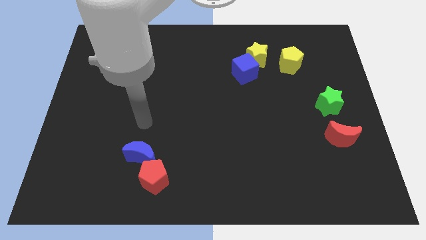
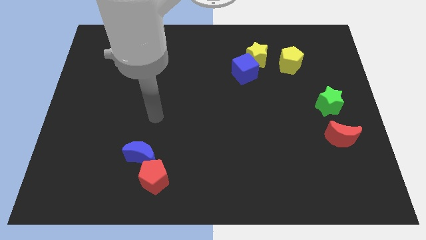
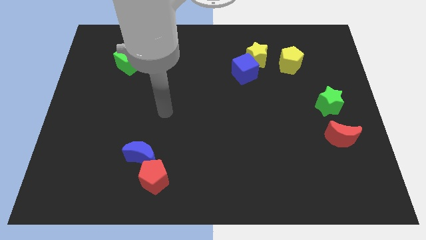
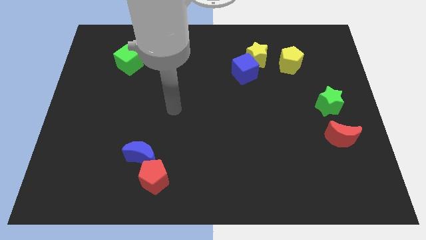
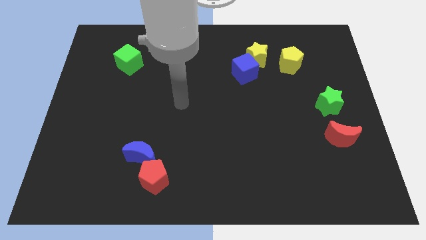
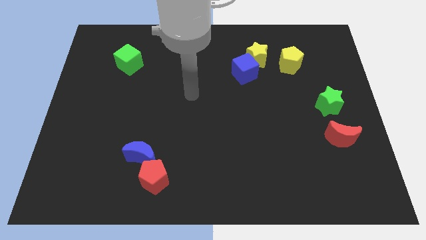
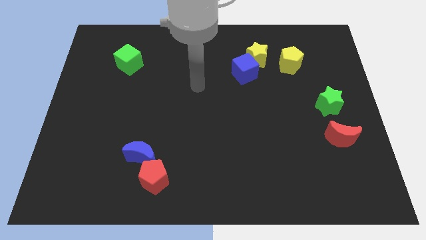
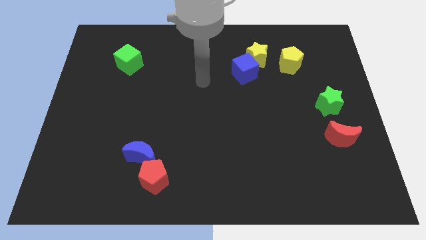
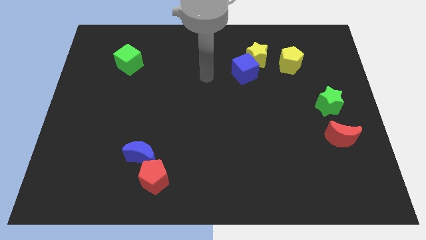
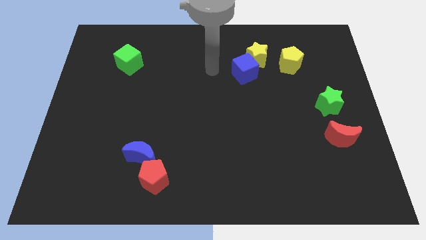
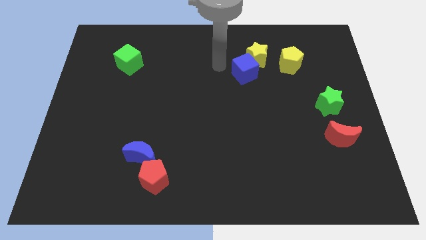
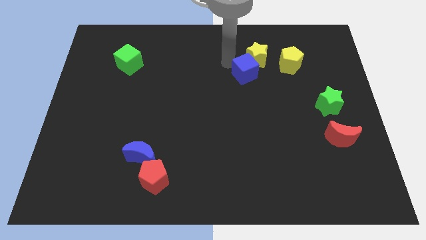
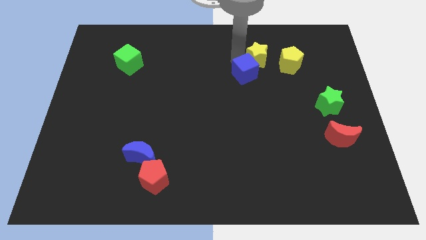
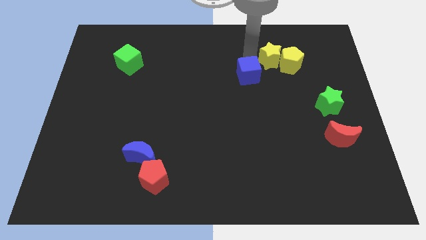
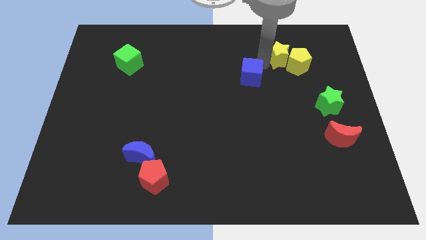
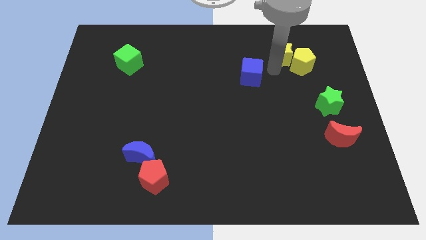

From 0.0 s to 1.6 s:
move the blue cube away from the yellow star

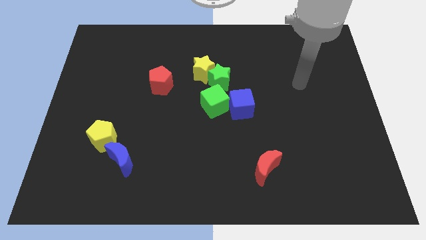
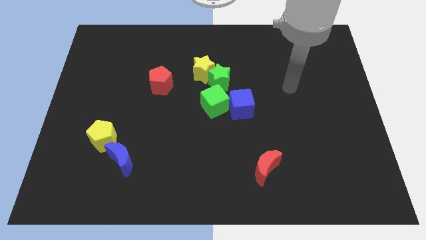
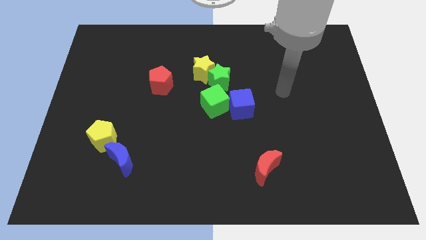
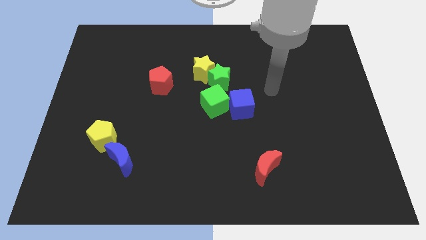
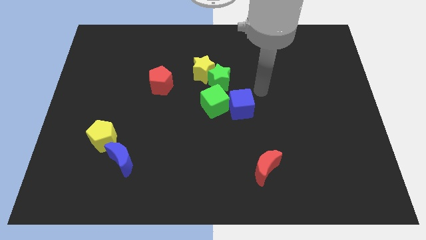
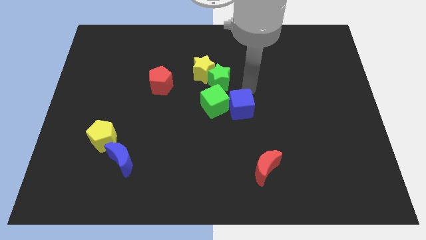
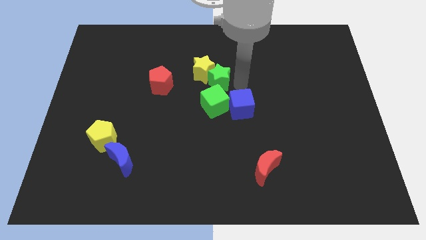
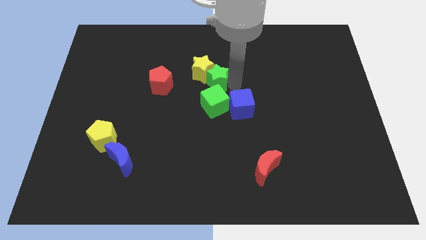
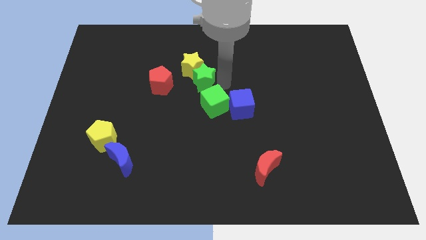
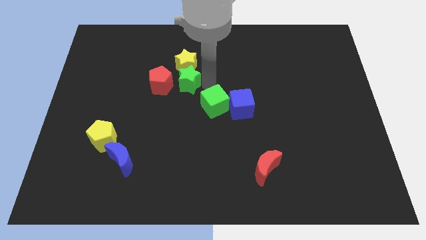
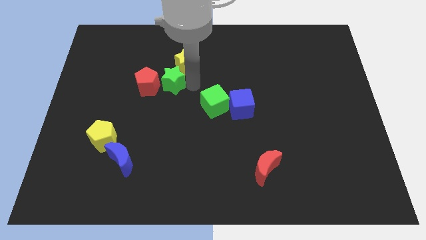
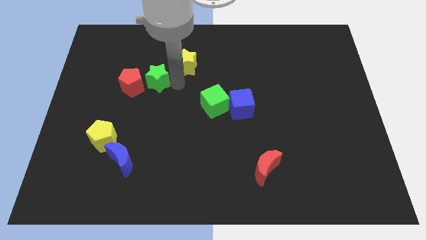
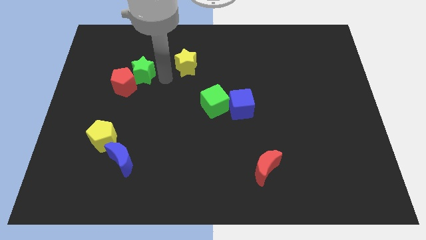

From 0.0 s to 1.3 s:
pull the yellow star apart from the green star

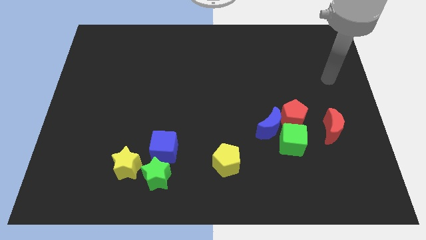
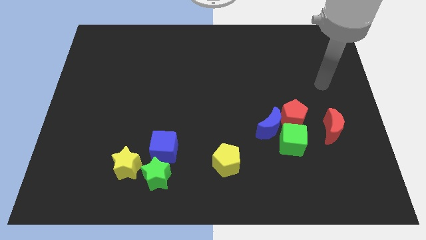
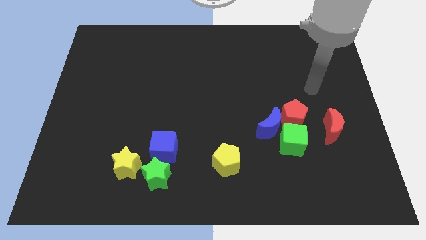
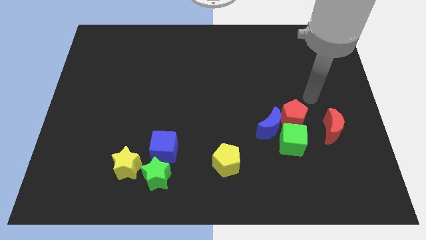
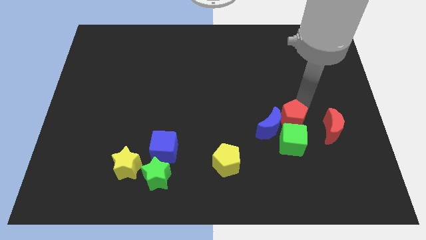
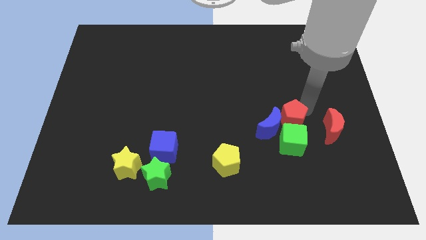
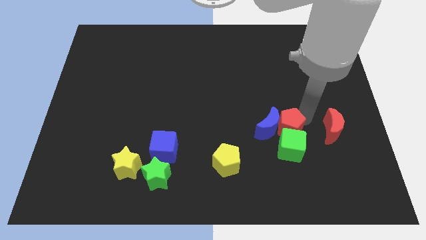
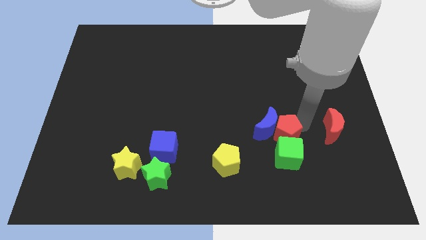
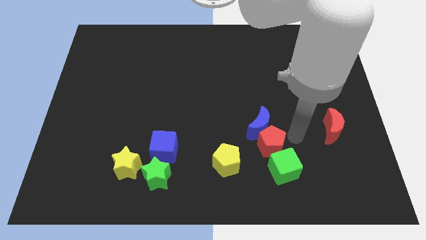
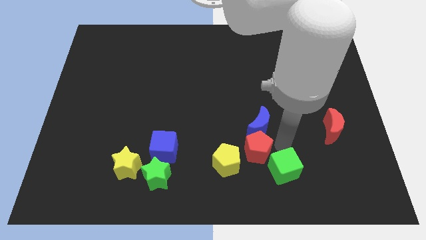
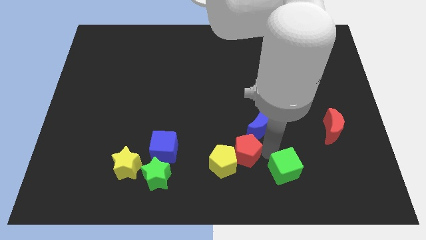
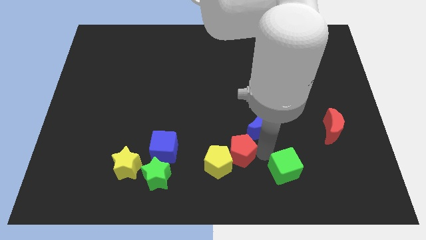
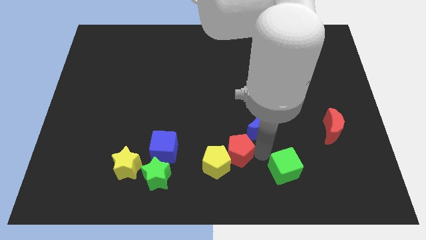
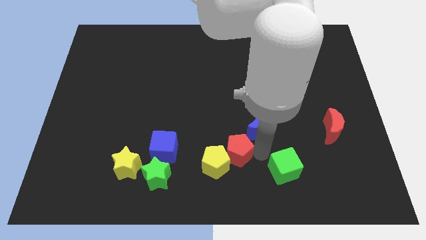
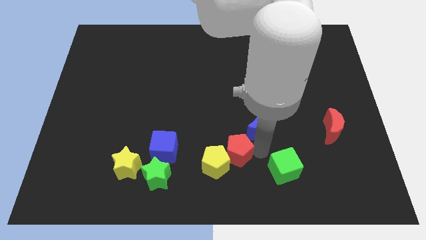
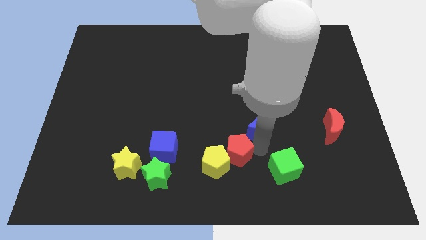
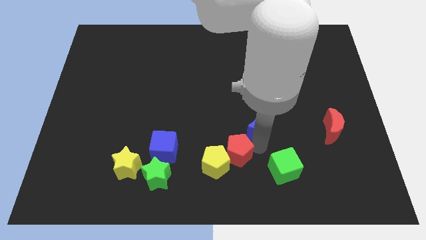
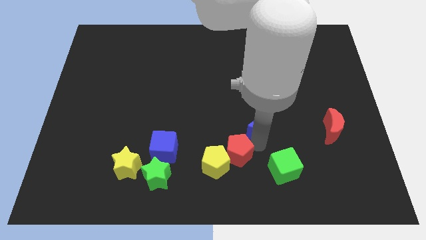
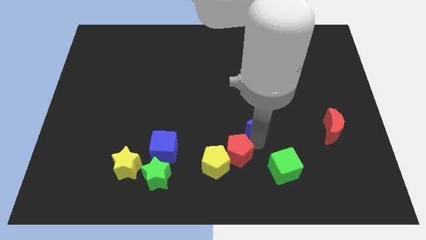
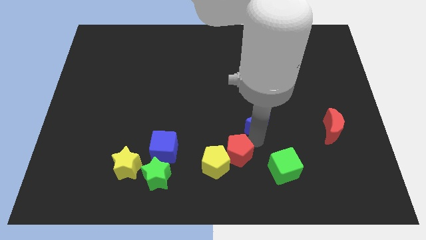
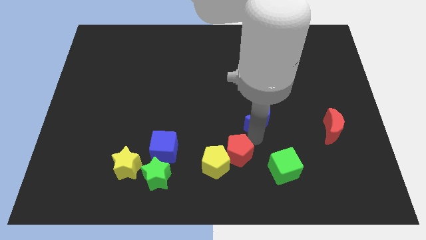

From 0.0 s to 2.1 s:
pull the blue moon apart from the green cube and red pentagon

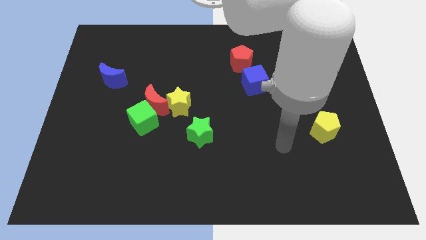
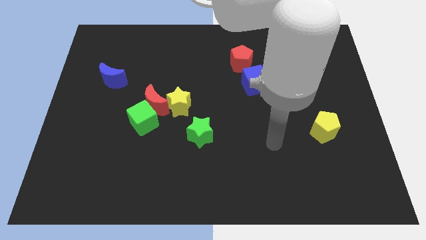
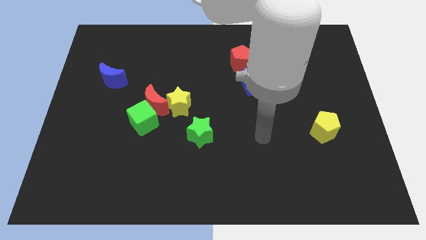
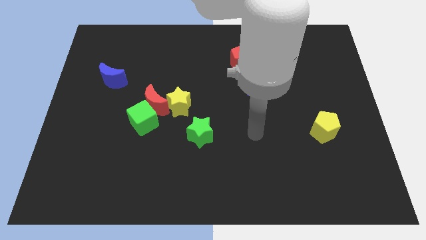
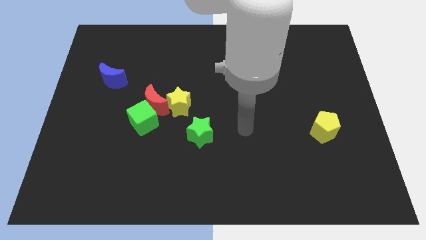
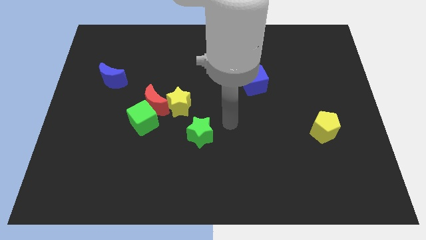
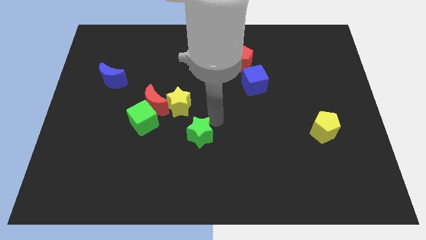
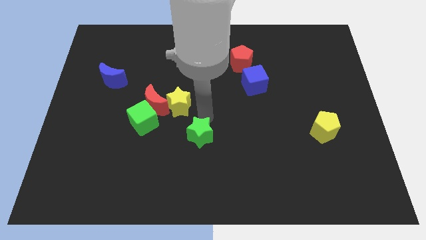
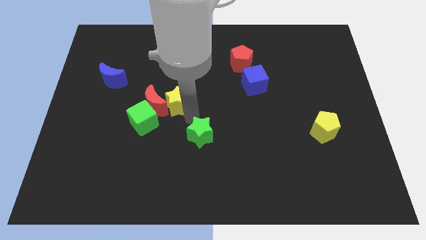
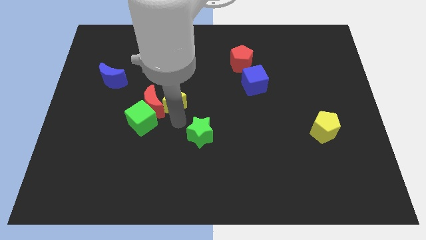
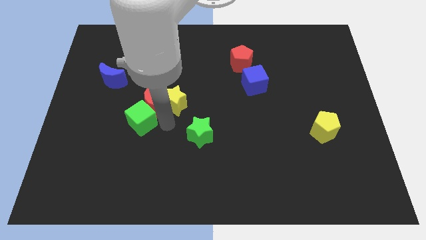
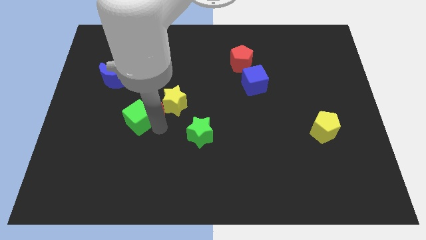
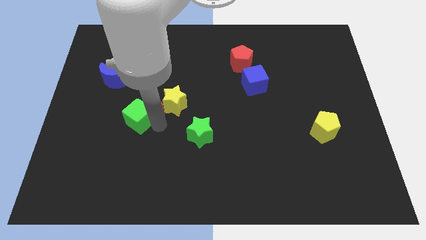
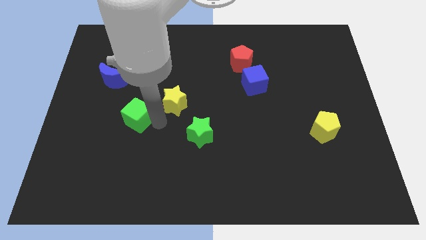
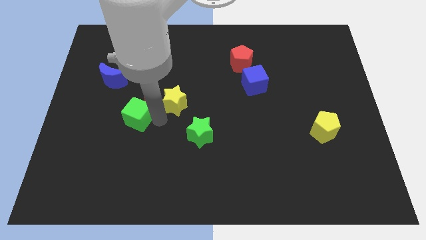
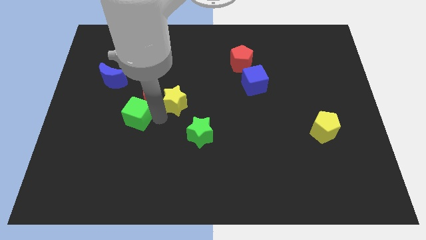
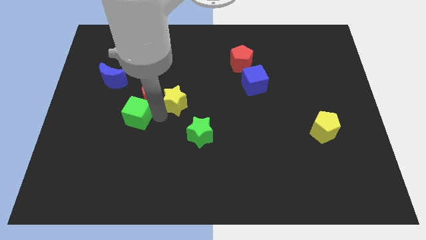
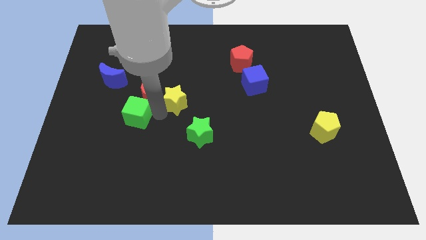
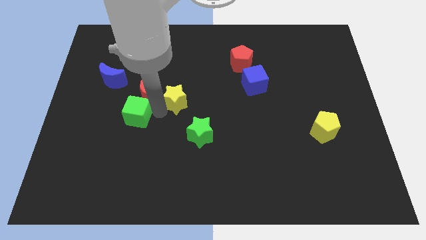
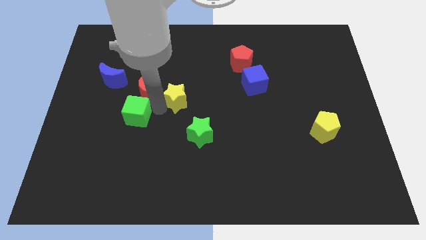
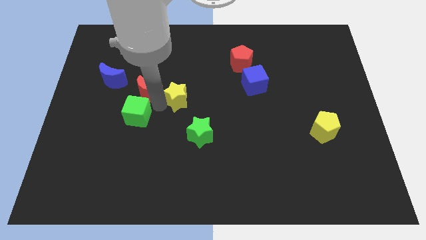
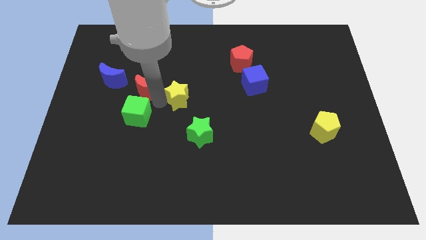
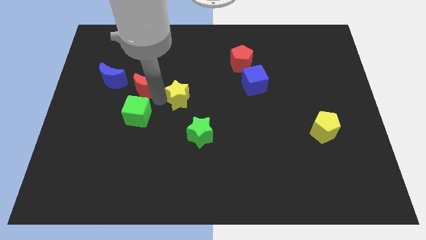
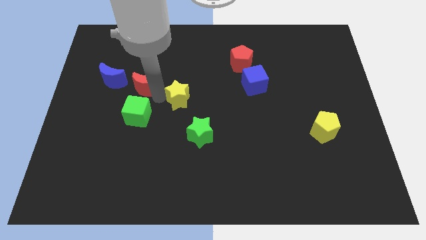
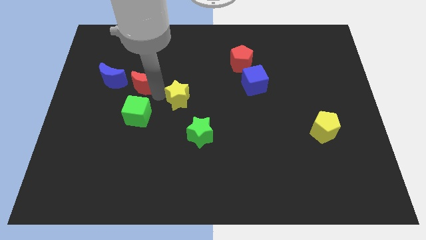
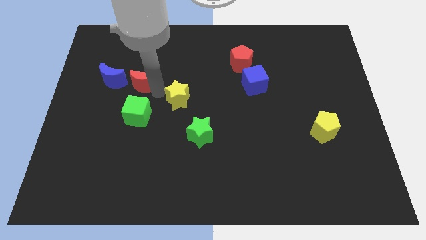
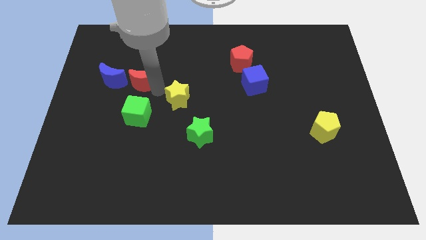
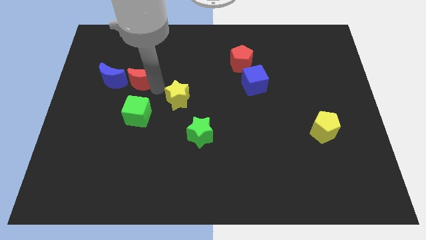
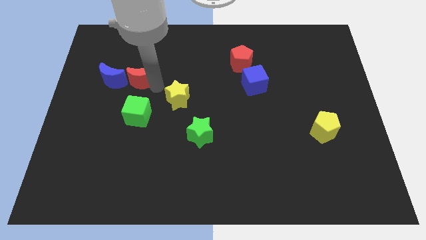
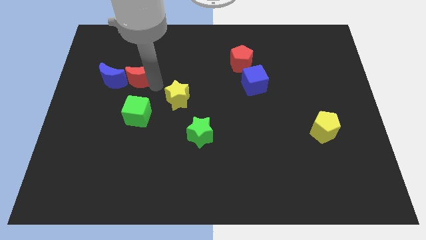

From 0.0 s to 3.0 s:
separate the red moon from the green cube and yellow star

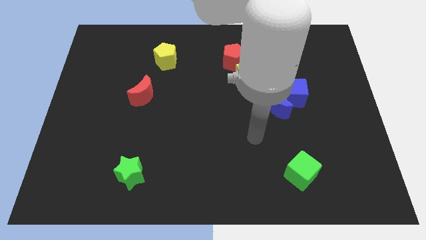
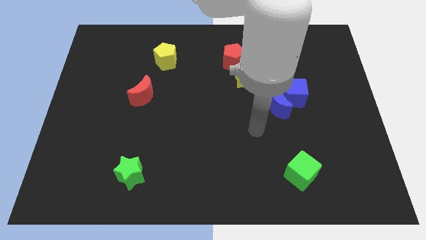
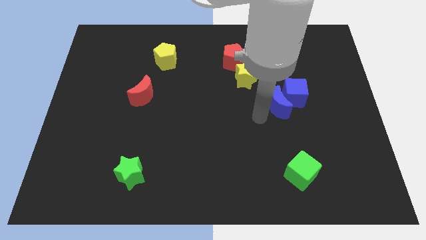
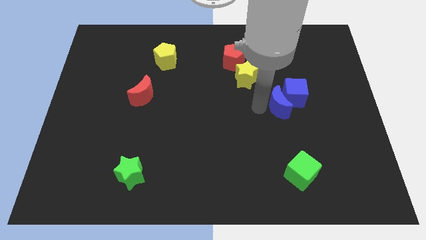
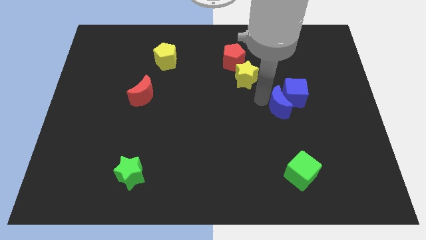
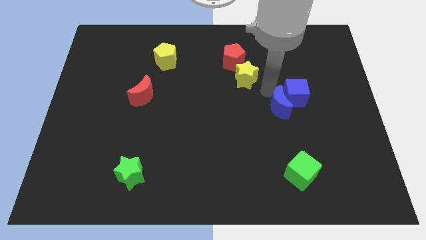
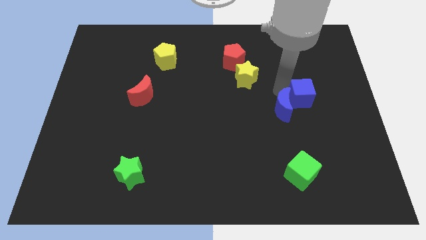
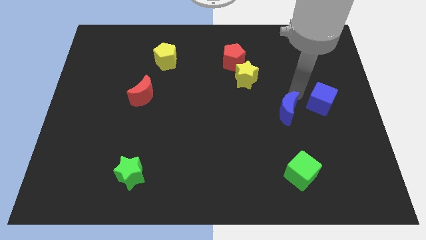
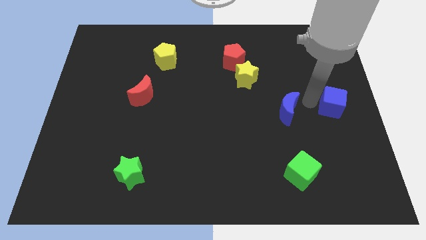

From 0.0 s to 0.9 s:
pull the blue moon apart from the blue cube

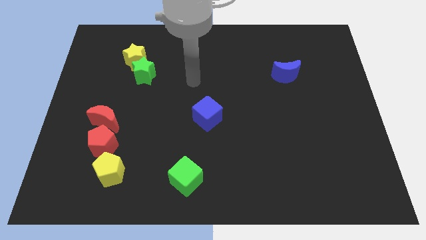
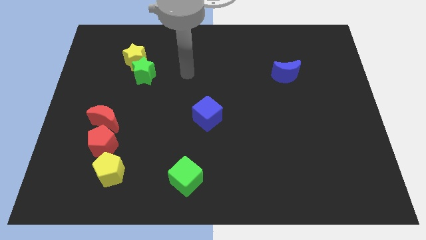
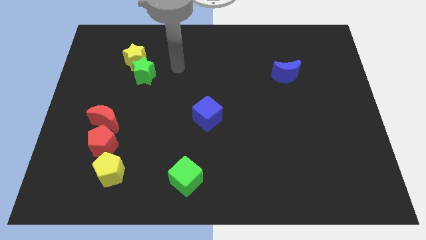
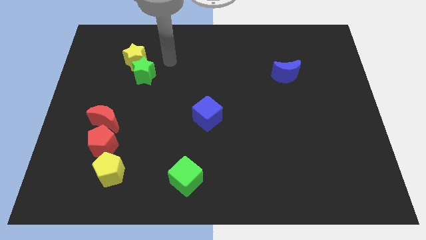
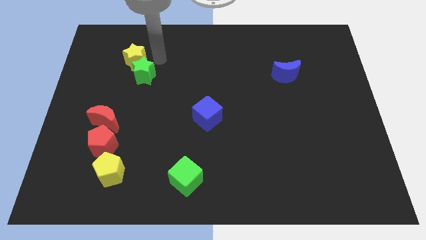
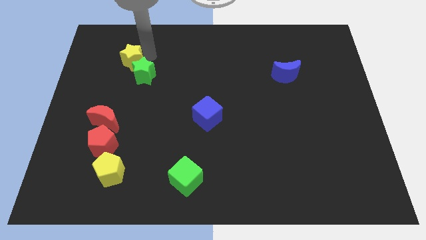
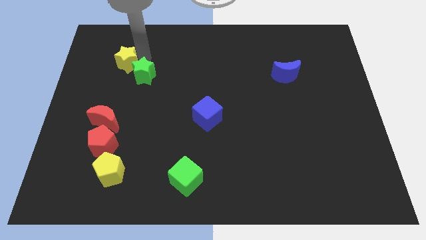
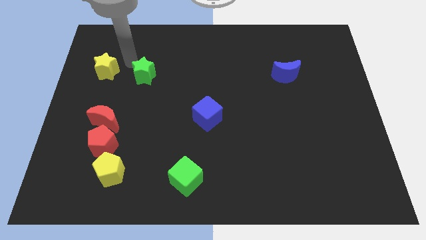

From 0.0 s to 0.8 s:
separate the green star from the yellow star
